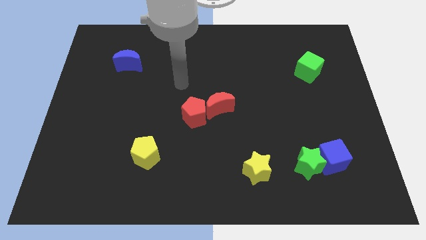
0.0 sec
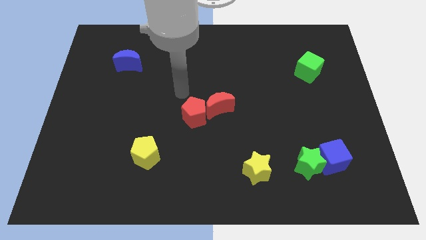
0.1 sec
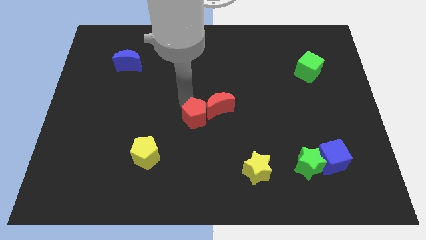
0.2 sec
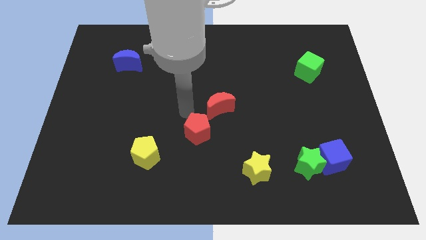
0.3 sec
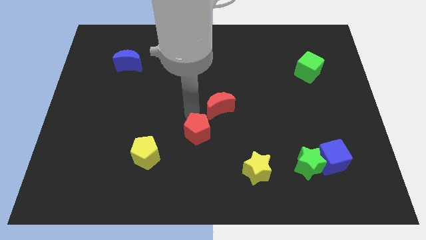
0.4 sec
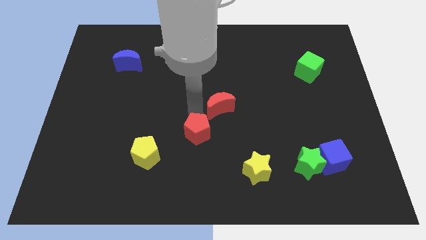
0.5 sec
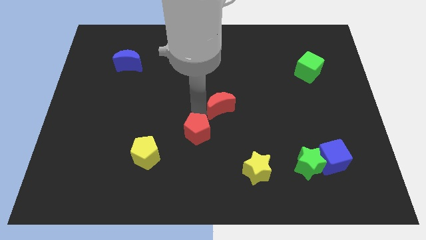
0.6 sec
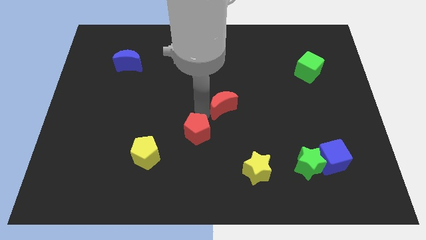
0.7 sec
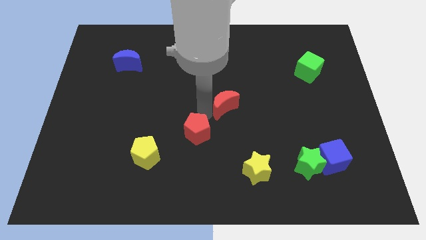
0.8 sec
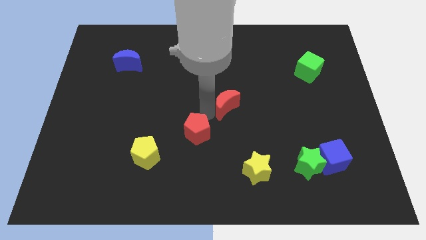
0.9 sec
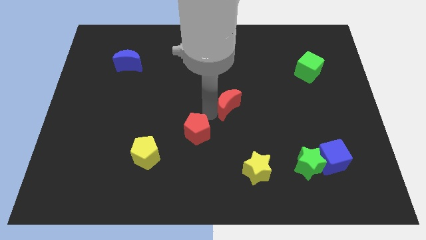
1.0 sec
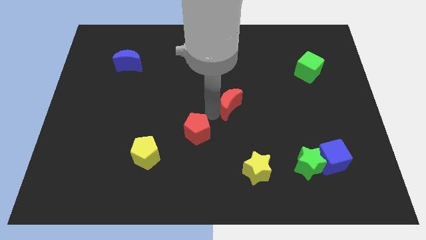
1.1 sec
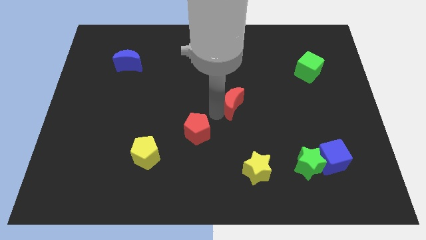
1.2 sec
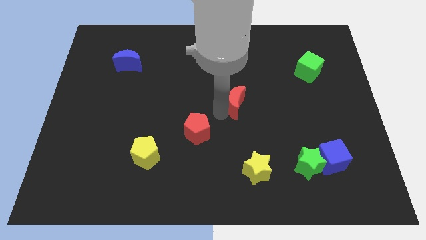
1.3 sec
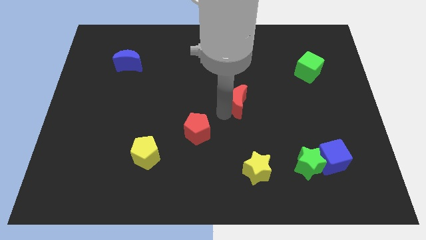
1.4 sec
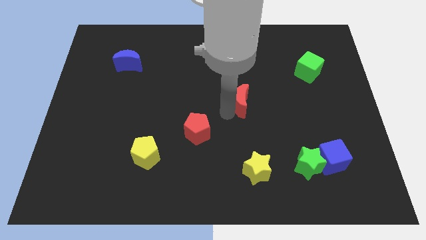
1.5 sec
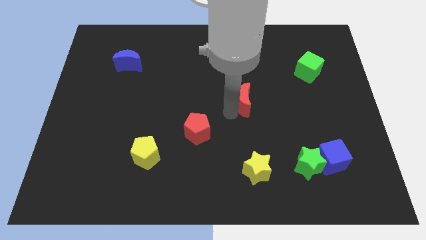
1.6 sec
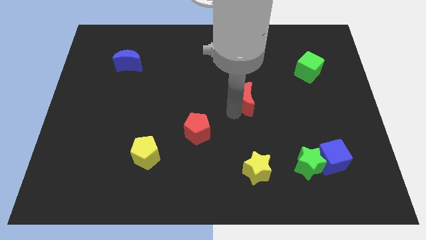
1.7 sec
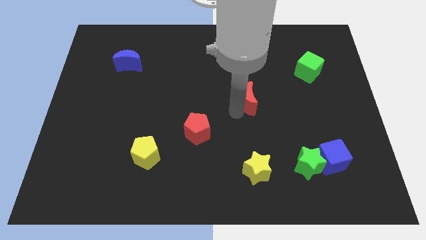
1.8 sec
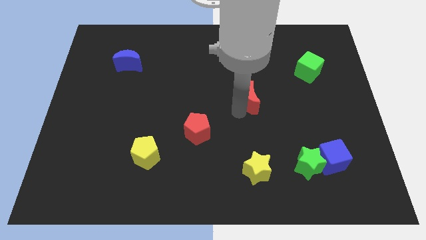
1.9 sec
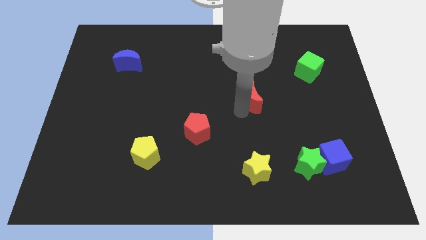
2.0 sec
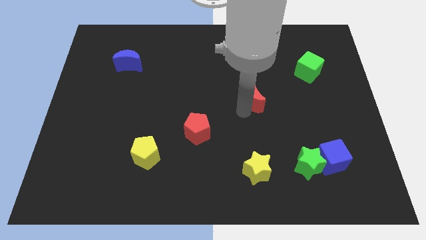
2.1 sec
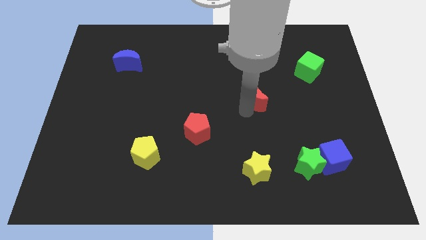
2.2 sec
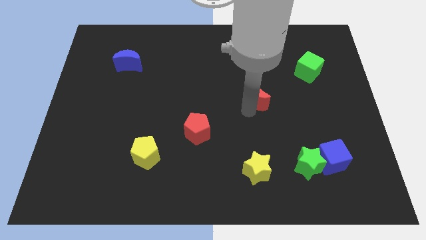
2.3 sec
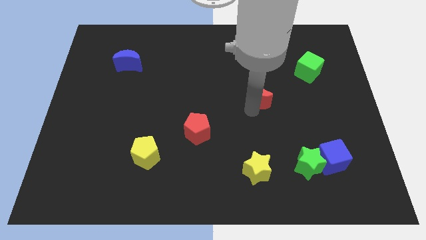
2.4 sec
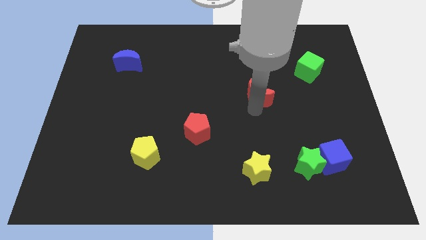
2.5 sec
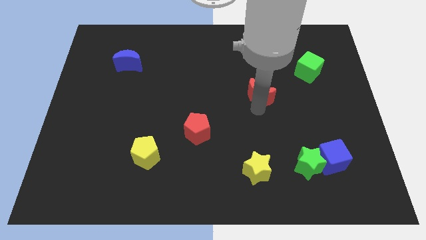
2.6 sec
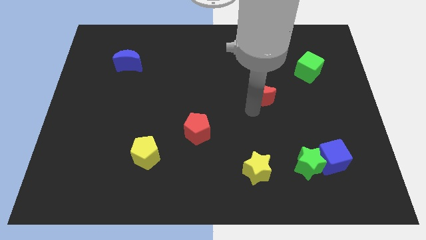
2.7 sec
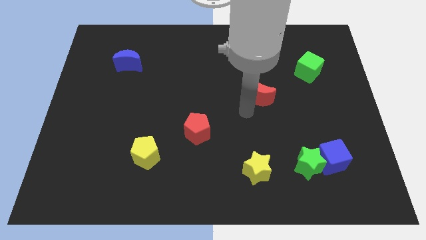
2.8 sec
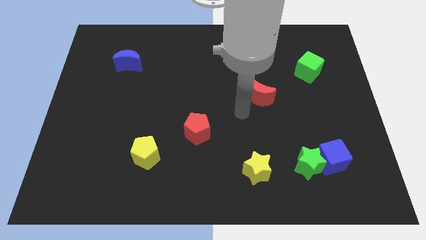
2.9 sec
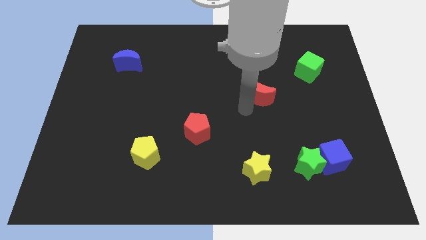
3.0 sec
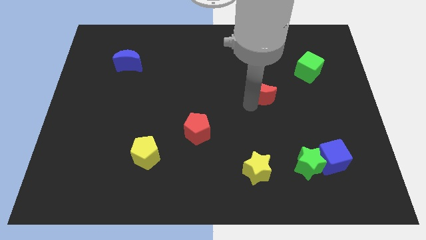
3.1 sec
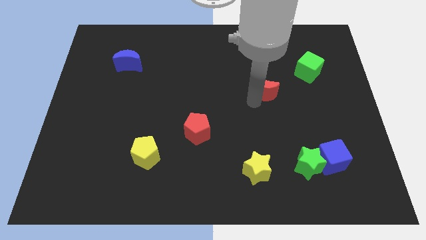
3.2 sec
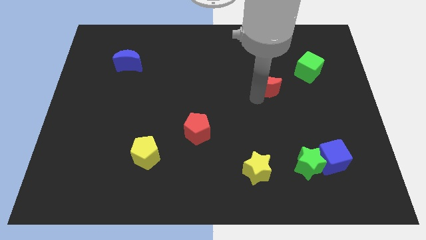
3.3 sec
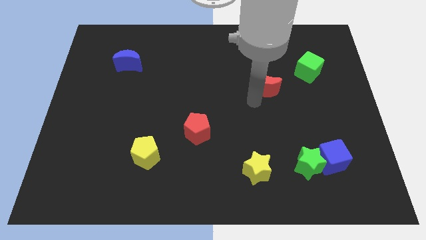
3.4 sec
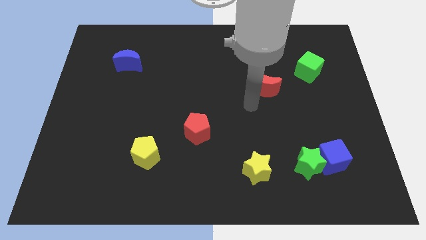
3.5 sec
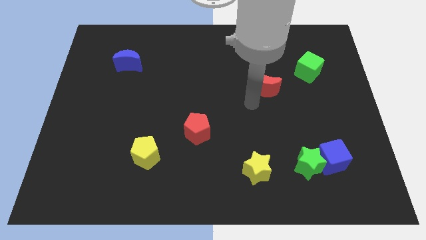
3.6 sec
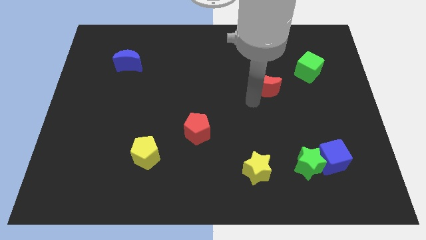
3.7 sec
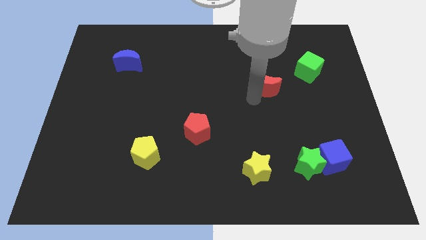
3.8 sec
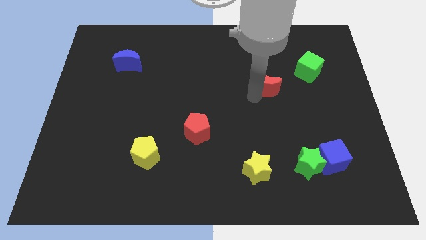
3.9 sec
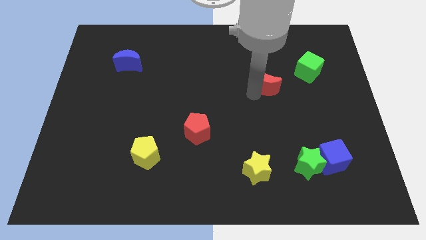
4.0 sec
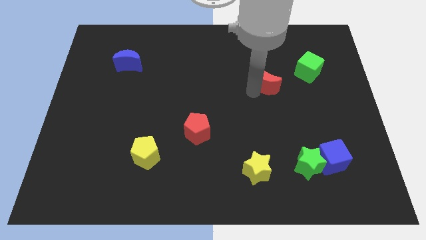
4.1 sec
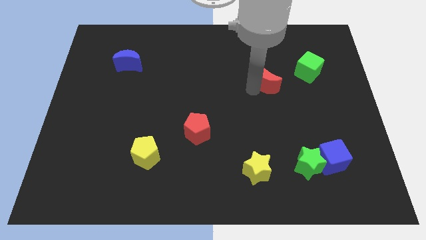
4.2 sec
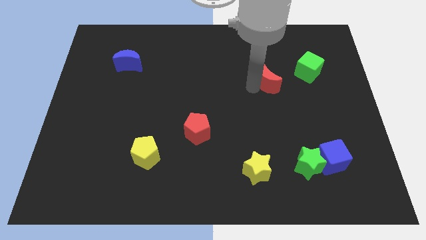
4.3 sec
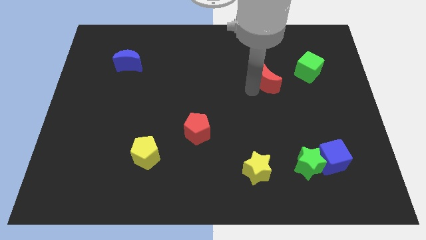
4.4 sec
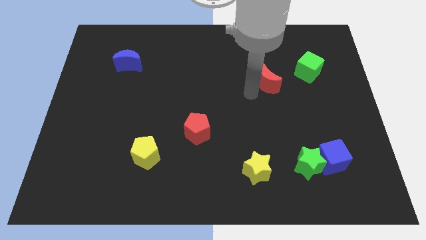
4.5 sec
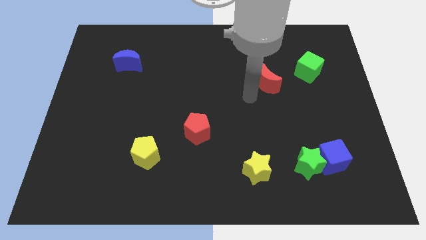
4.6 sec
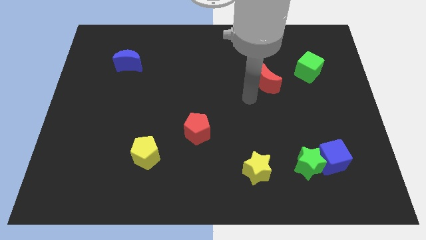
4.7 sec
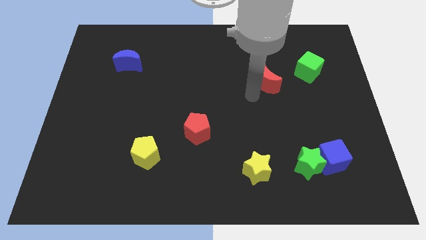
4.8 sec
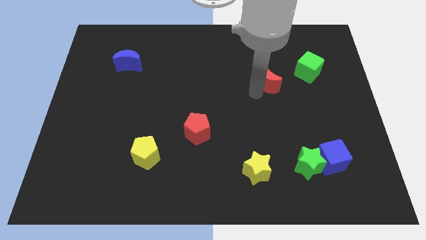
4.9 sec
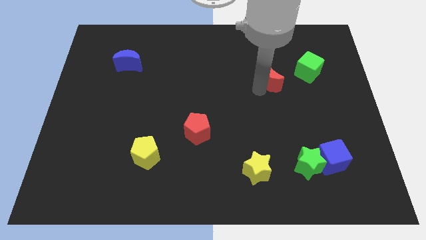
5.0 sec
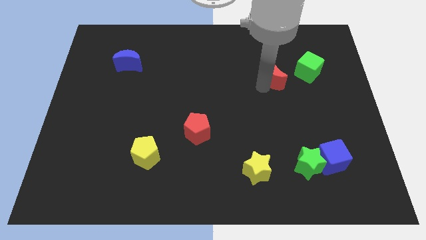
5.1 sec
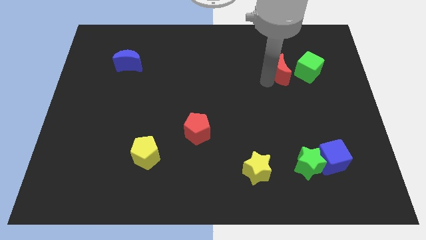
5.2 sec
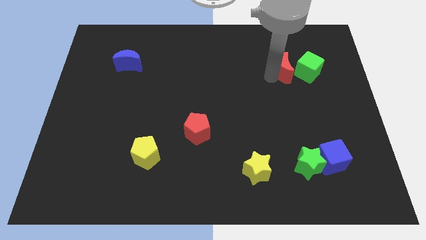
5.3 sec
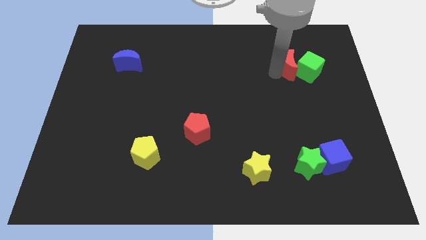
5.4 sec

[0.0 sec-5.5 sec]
push the red moon next to the green cube

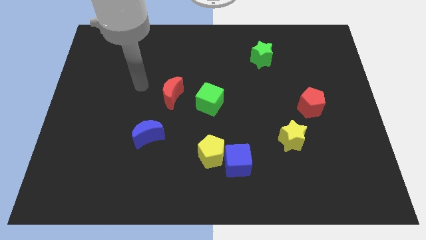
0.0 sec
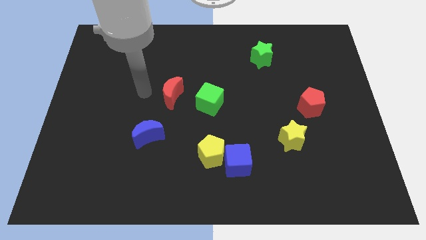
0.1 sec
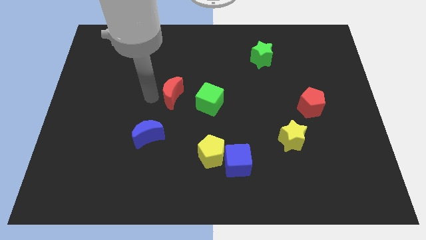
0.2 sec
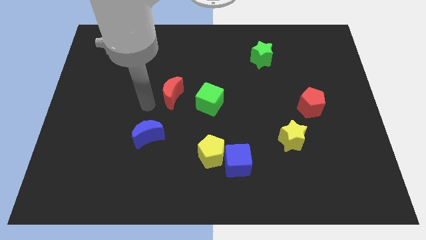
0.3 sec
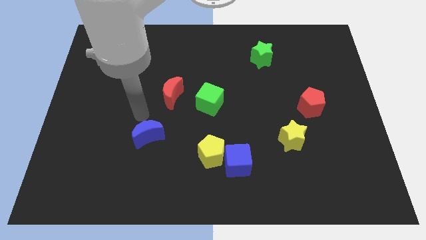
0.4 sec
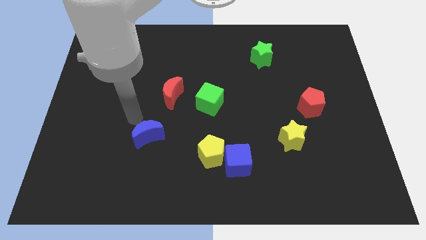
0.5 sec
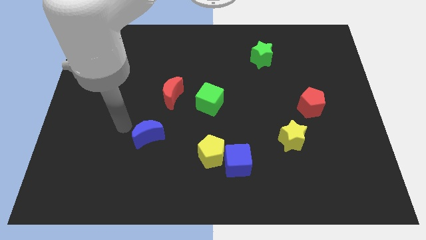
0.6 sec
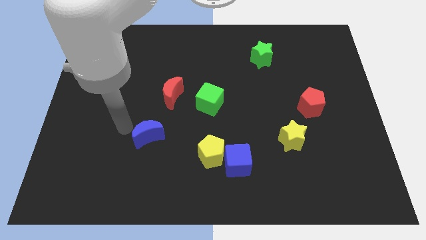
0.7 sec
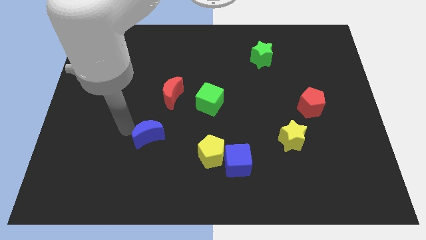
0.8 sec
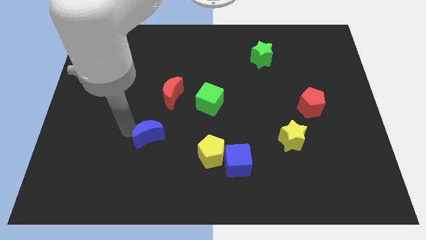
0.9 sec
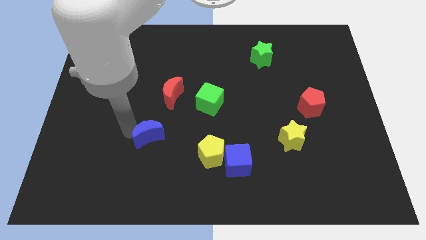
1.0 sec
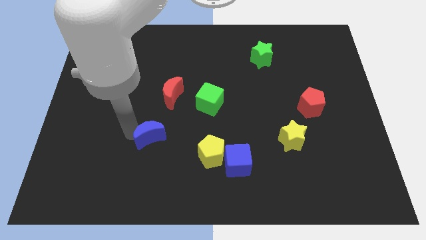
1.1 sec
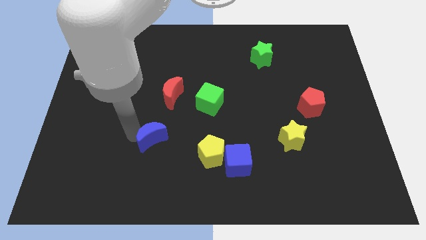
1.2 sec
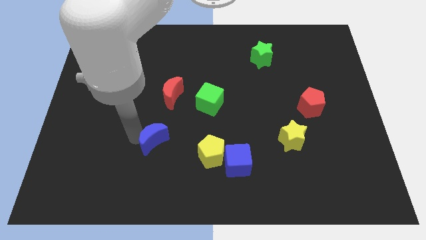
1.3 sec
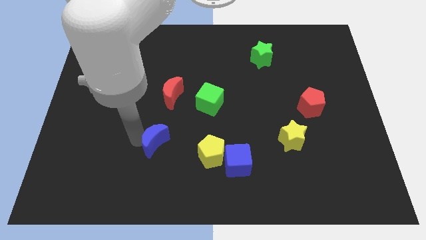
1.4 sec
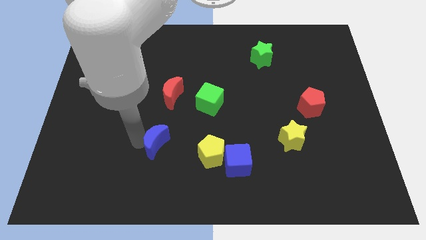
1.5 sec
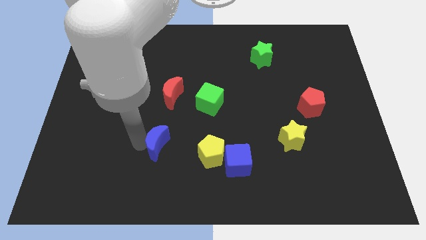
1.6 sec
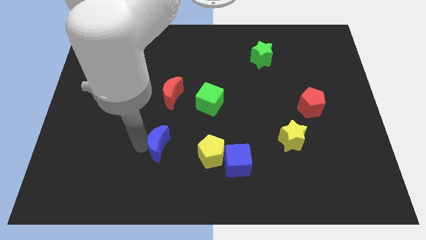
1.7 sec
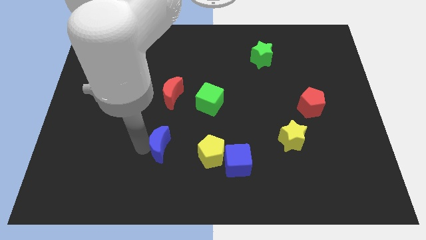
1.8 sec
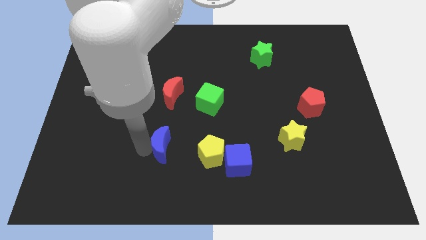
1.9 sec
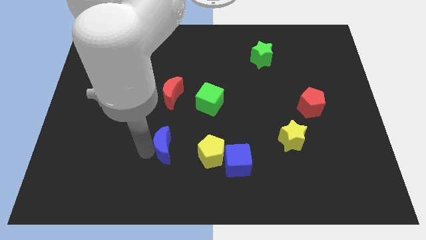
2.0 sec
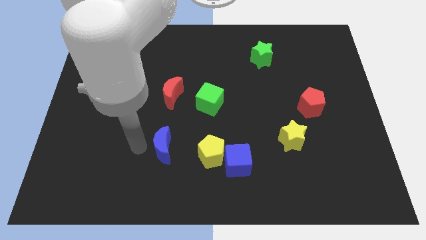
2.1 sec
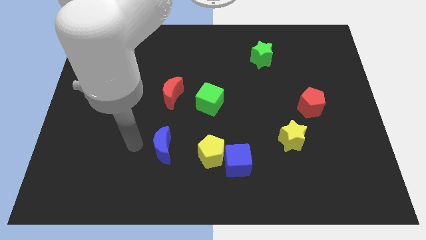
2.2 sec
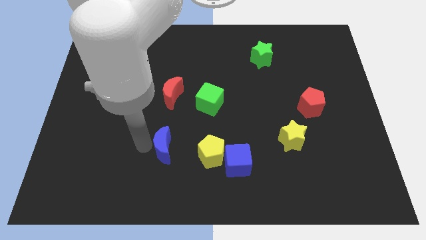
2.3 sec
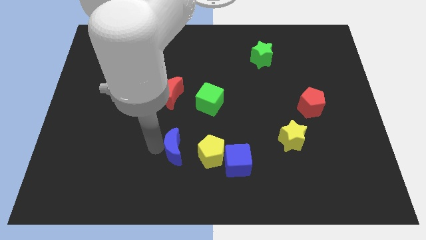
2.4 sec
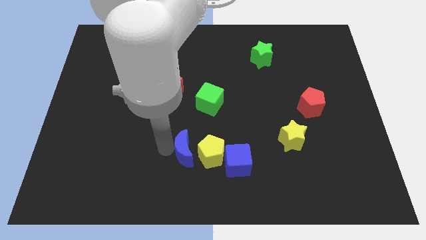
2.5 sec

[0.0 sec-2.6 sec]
put the blue moon to the yellow pentagon
